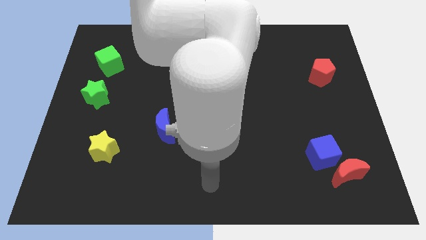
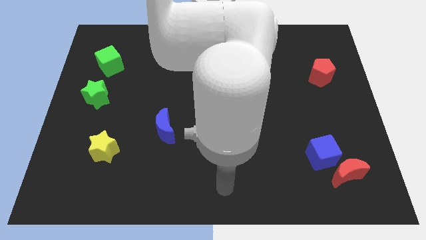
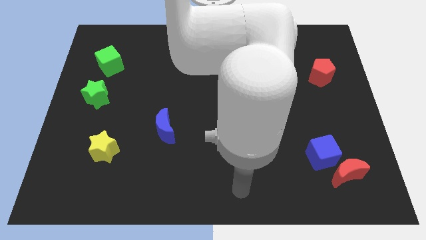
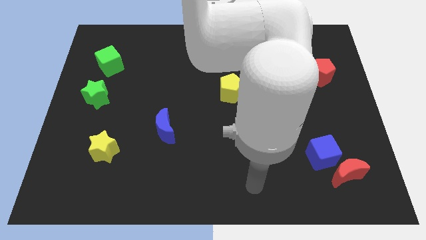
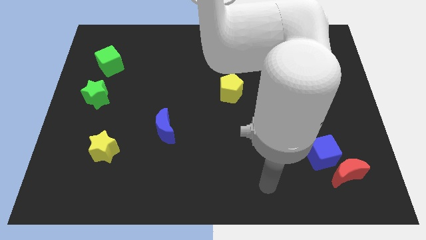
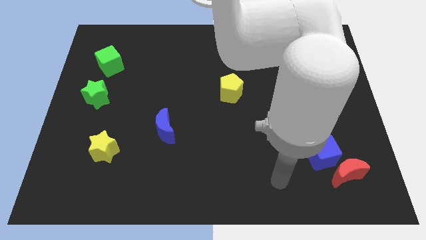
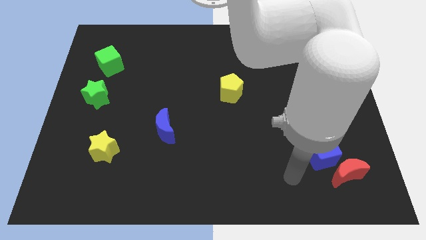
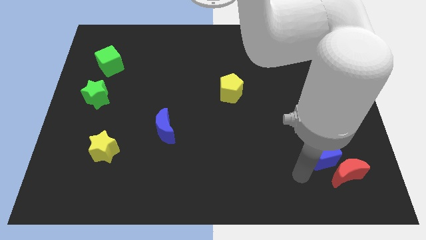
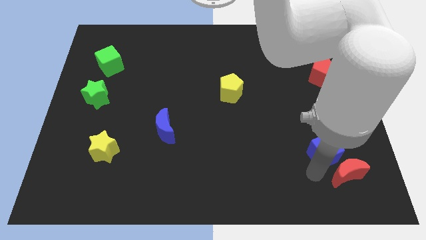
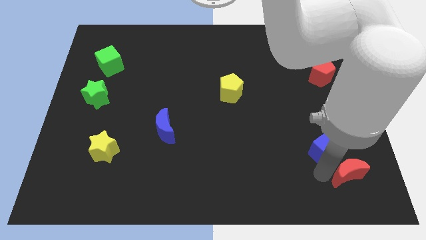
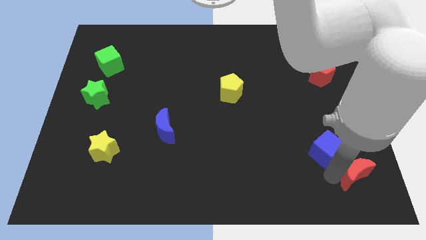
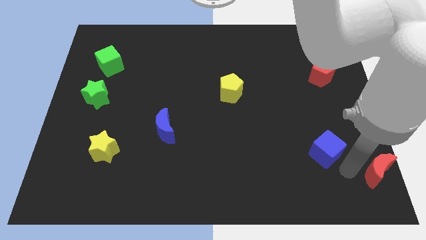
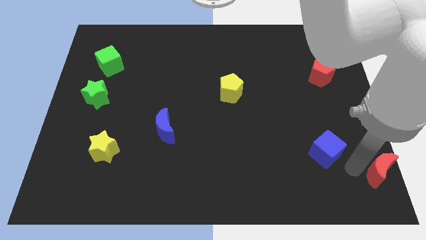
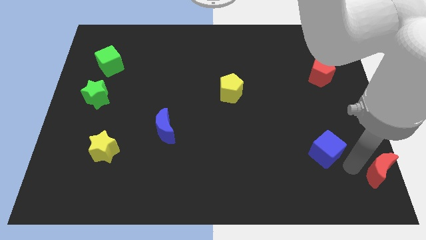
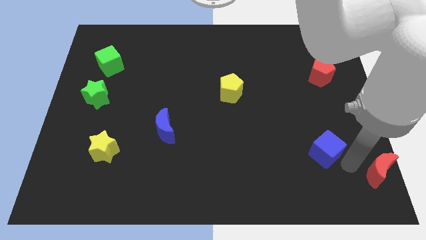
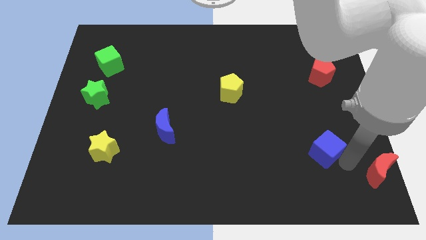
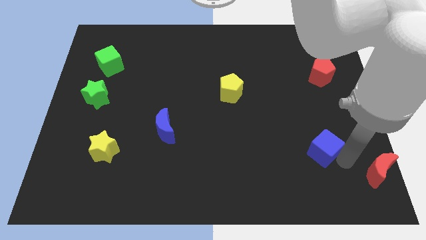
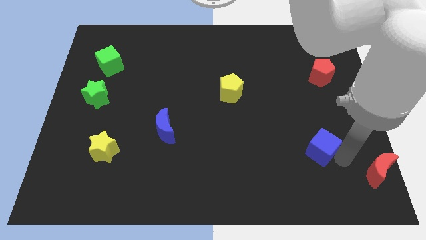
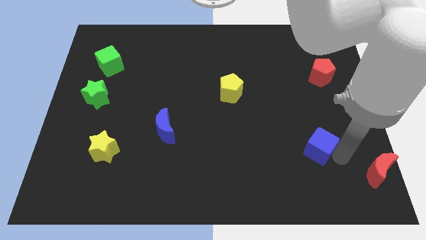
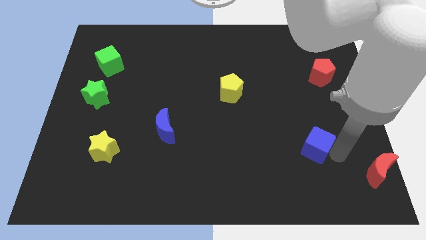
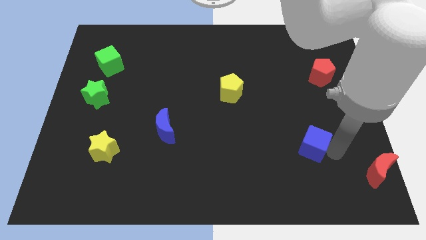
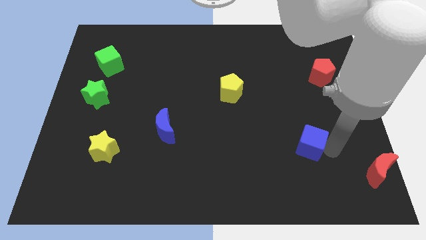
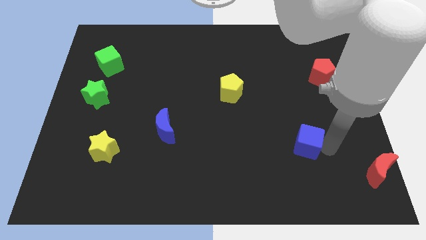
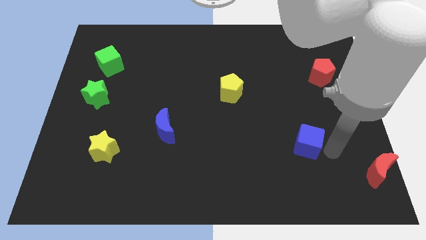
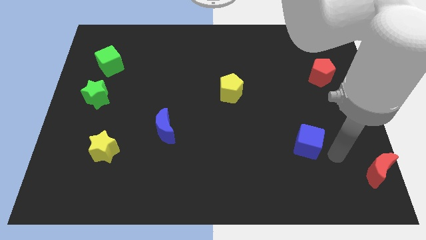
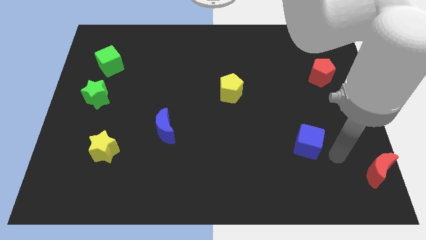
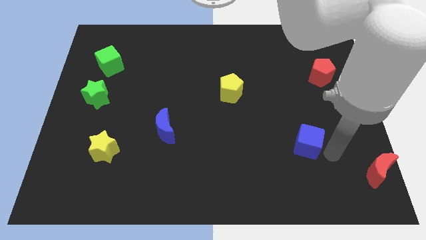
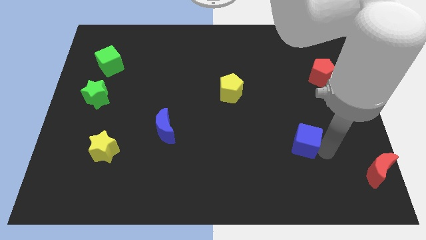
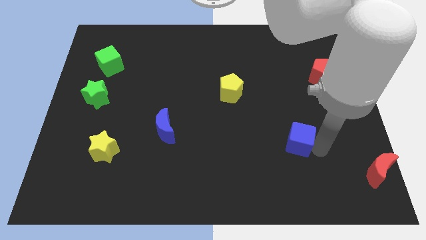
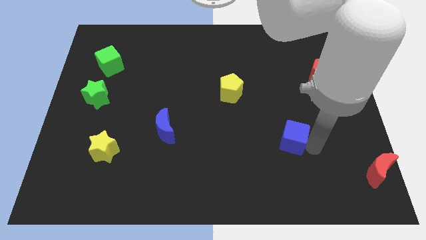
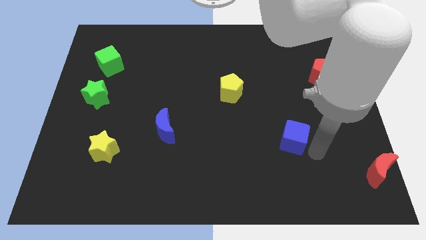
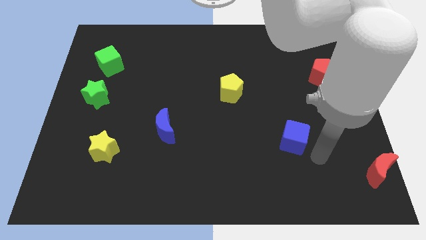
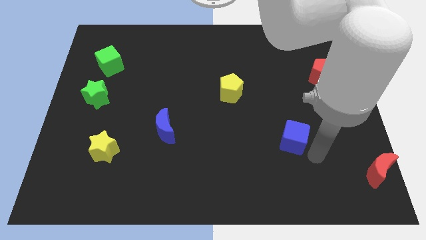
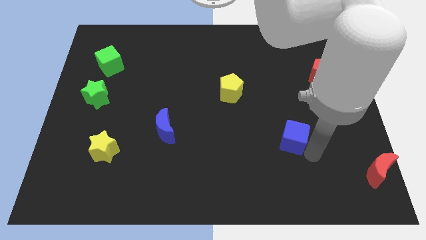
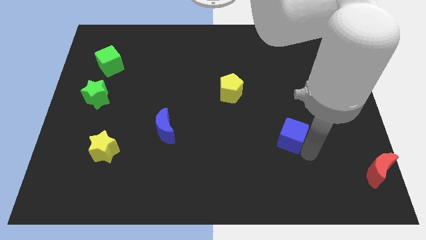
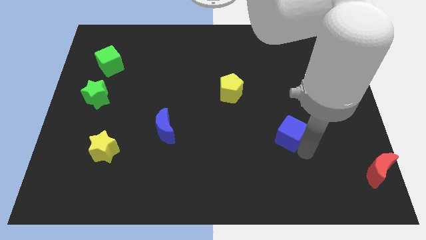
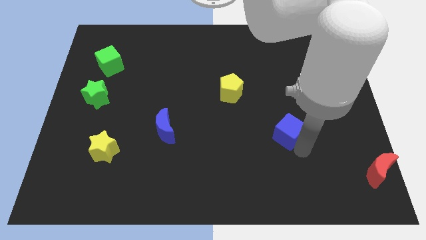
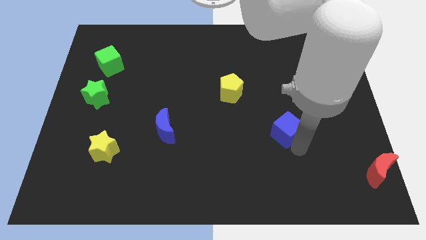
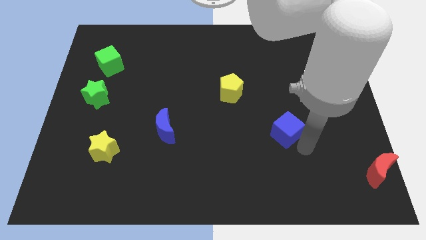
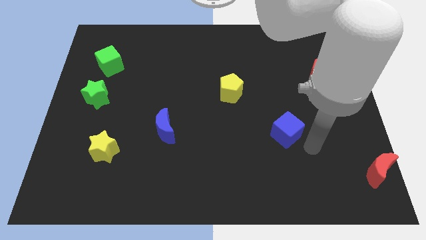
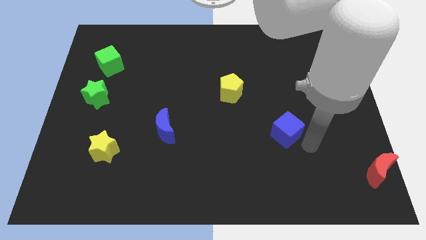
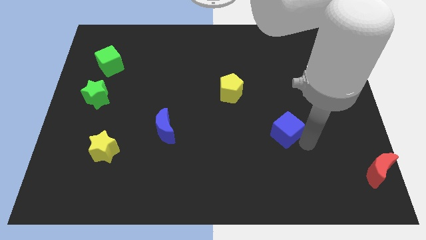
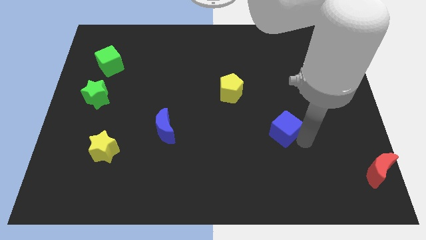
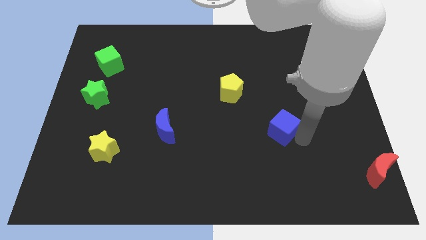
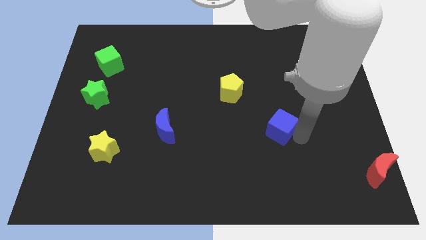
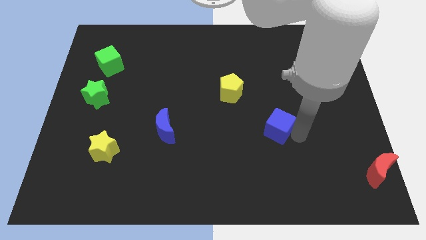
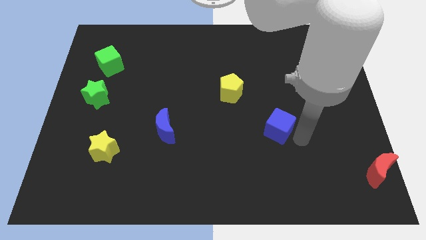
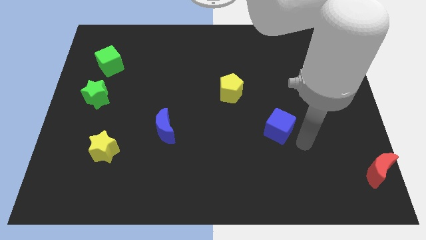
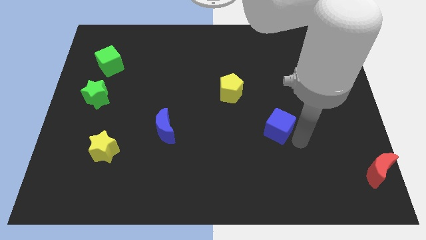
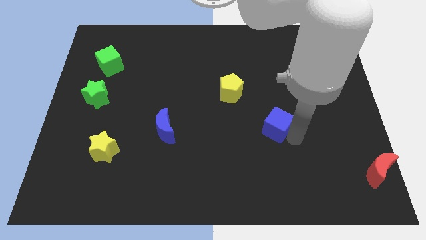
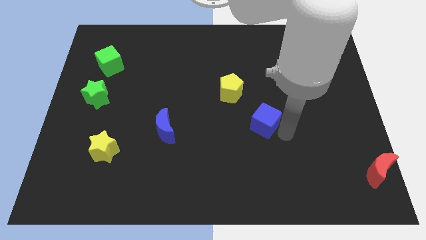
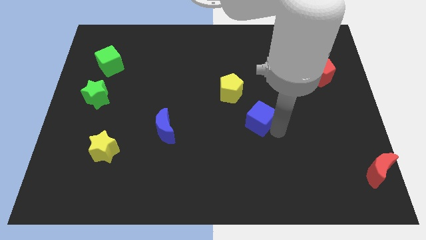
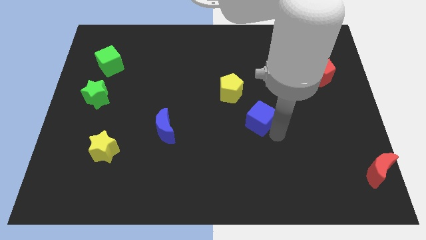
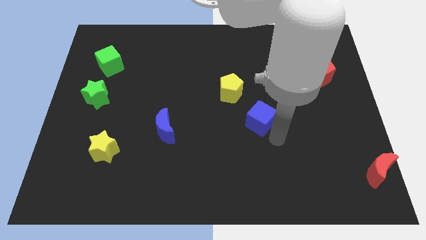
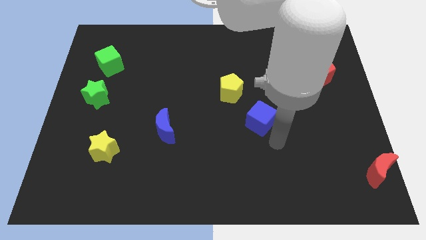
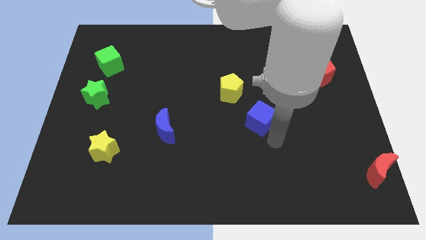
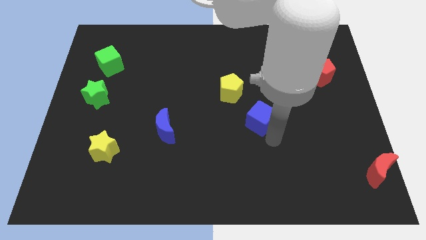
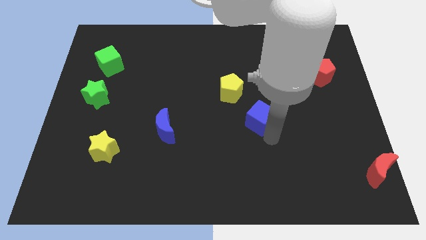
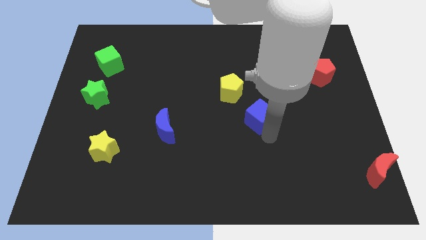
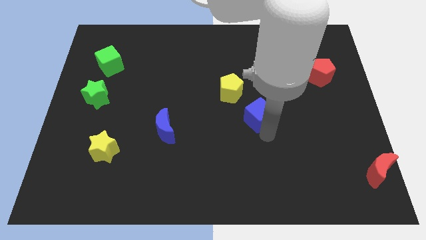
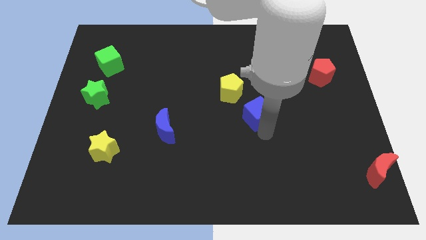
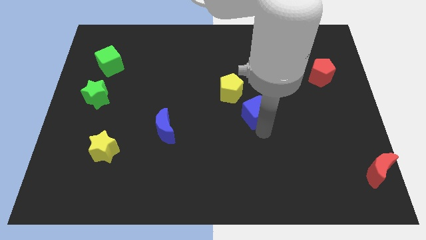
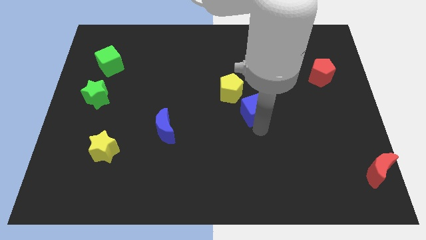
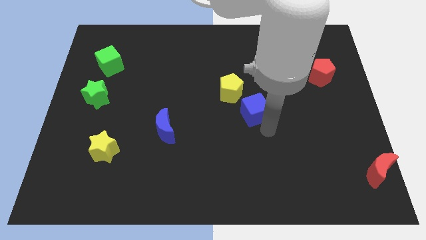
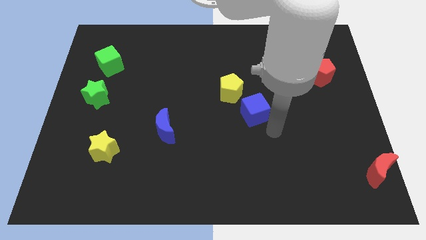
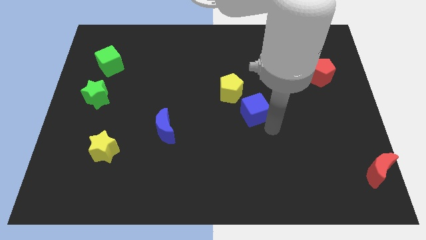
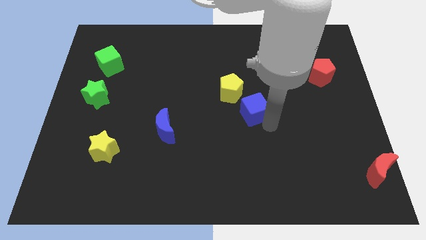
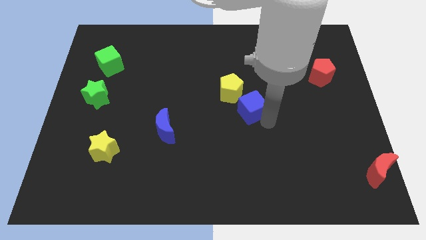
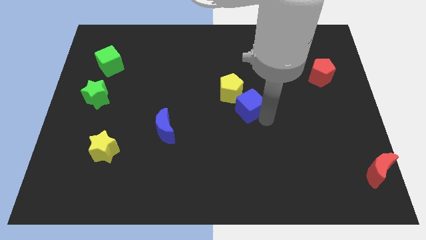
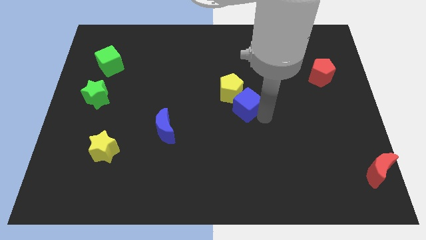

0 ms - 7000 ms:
push the blue cube to the yellow pentagon
